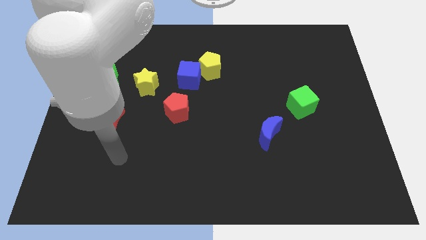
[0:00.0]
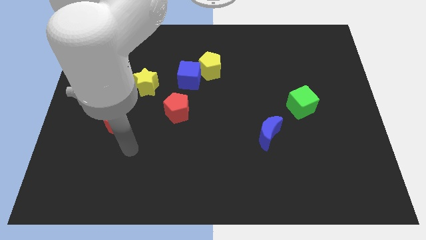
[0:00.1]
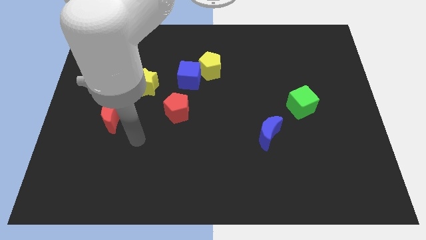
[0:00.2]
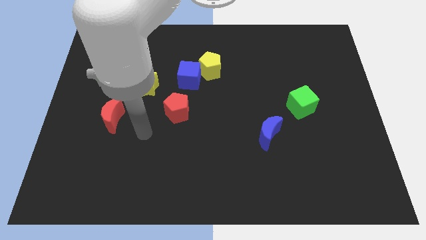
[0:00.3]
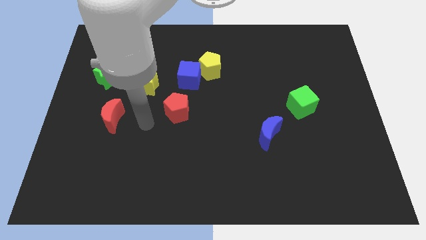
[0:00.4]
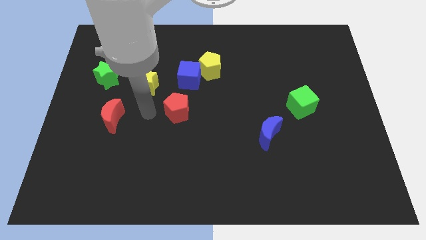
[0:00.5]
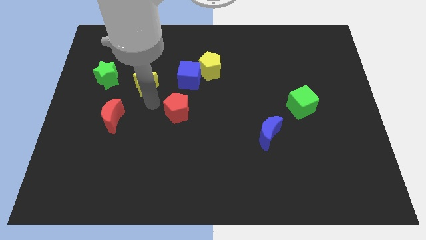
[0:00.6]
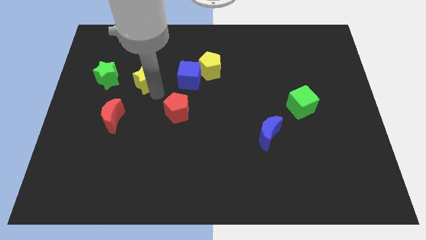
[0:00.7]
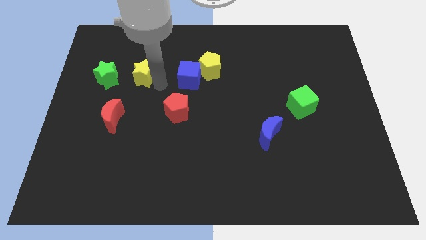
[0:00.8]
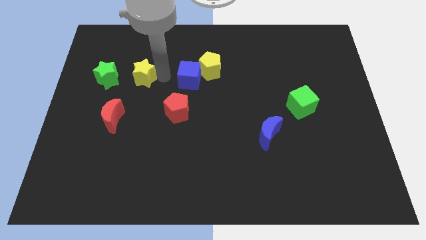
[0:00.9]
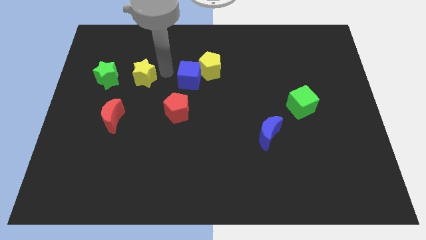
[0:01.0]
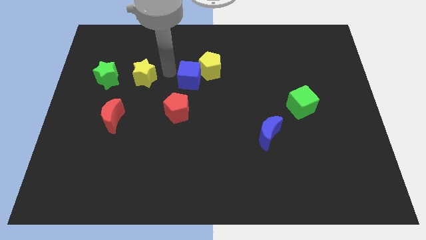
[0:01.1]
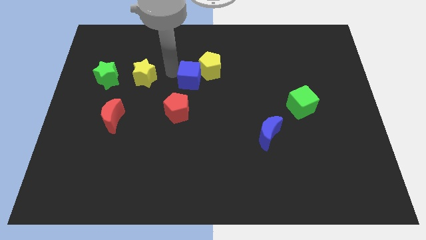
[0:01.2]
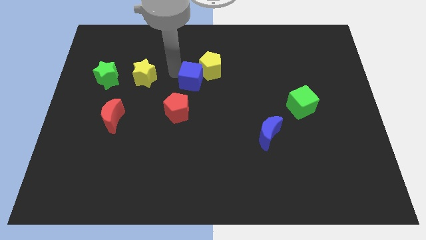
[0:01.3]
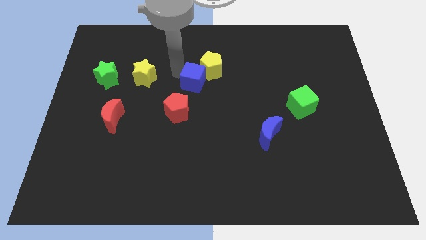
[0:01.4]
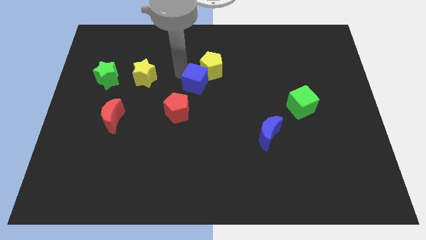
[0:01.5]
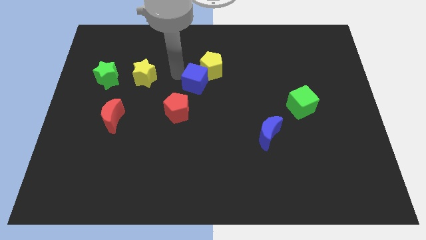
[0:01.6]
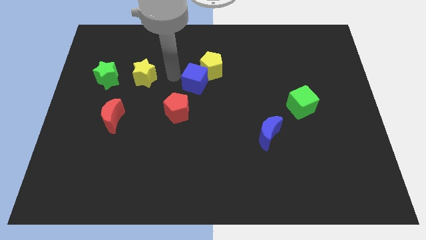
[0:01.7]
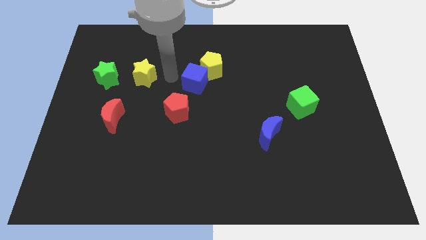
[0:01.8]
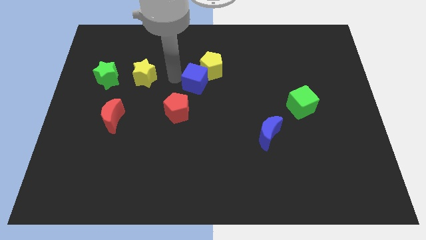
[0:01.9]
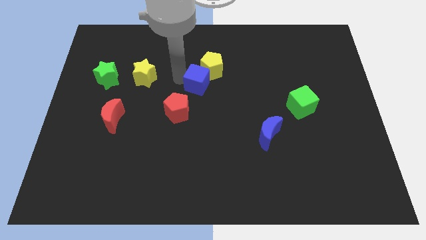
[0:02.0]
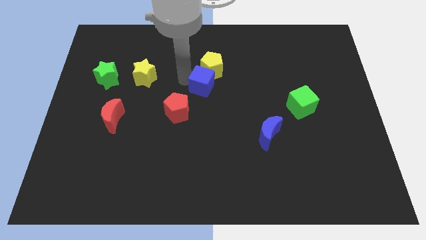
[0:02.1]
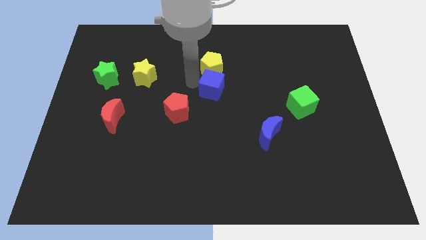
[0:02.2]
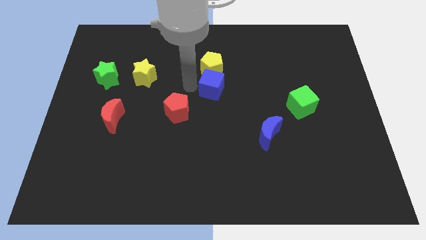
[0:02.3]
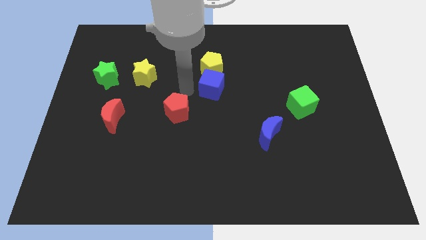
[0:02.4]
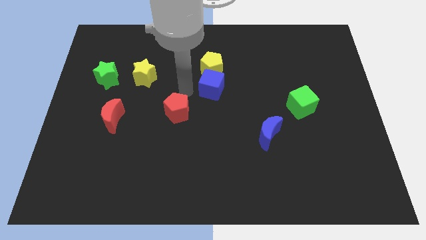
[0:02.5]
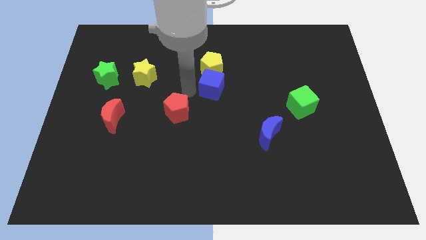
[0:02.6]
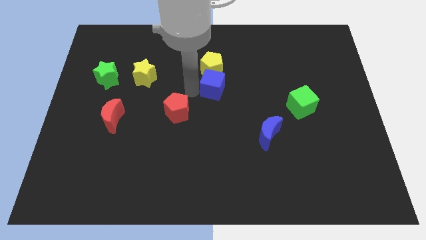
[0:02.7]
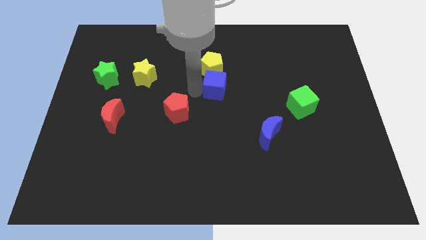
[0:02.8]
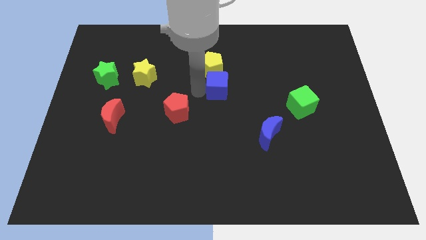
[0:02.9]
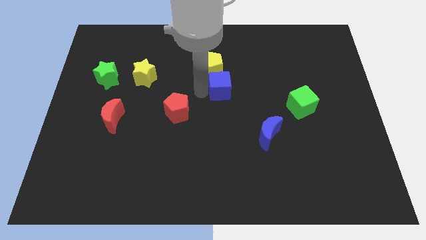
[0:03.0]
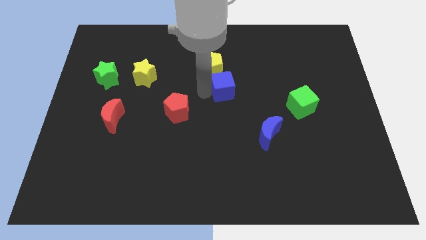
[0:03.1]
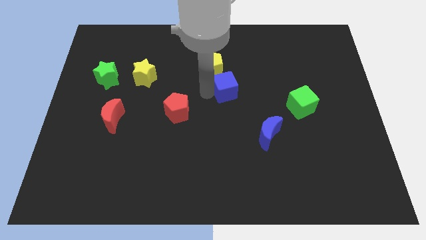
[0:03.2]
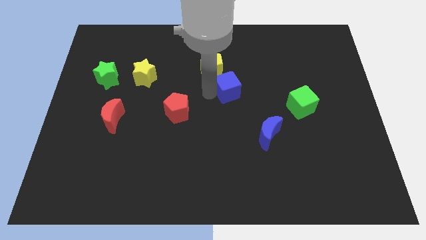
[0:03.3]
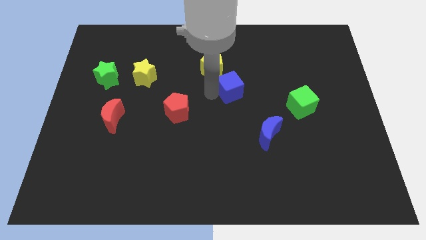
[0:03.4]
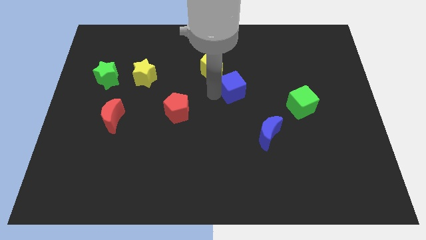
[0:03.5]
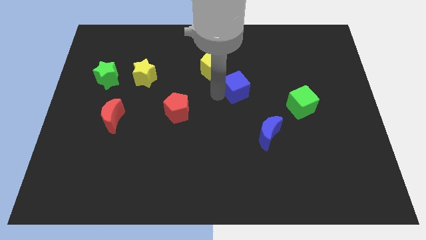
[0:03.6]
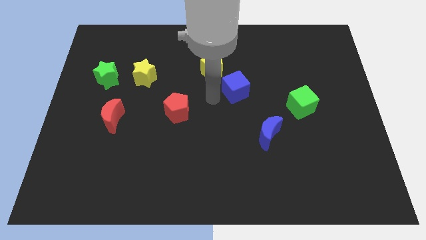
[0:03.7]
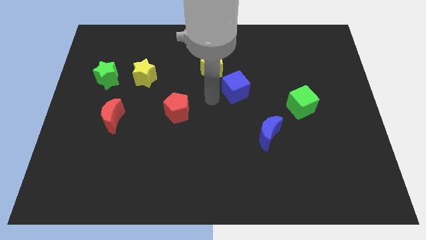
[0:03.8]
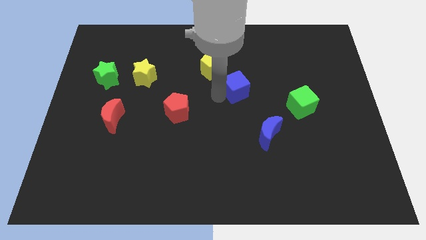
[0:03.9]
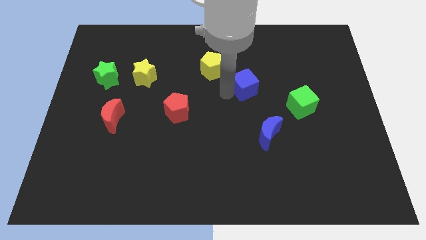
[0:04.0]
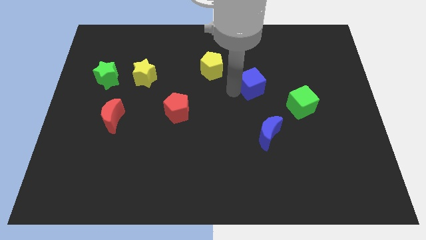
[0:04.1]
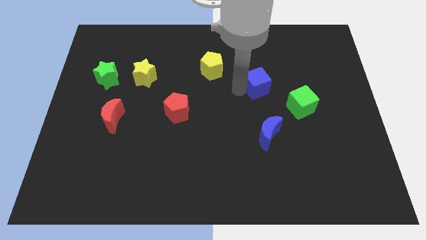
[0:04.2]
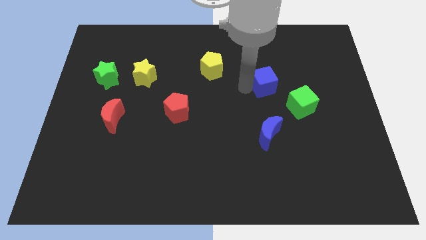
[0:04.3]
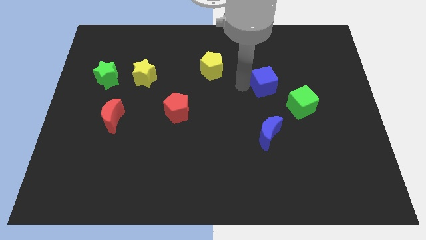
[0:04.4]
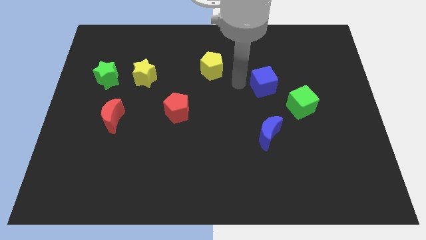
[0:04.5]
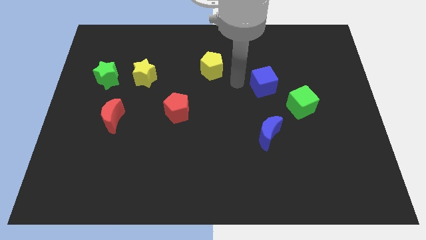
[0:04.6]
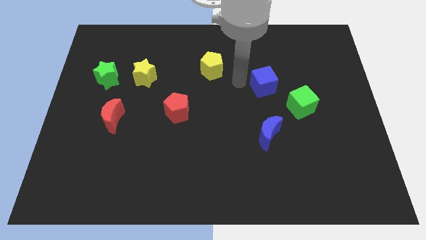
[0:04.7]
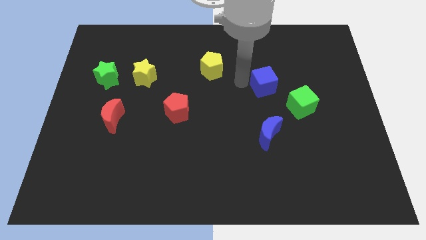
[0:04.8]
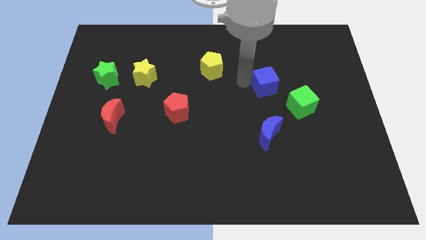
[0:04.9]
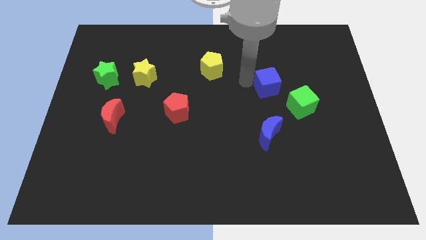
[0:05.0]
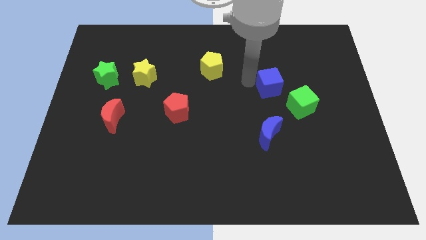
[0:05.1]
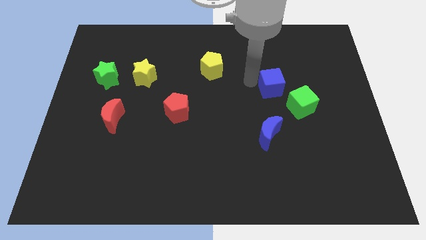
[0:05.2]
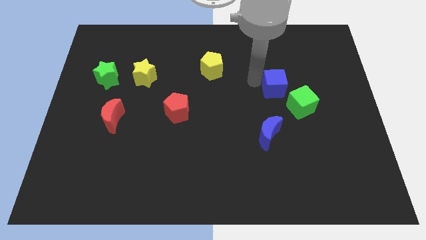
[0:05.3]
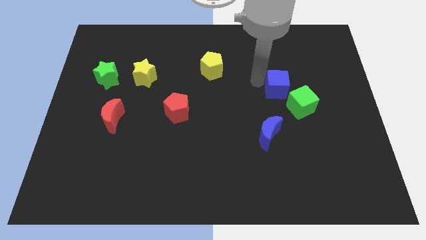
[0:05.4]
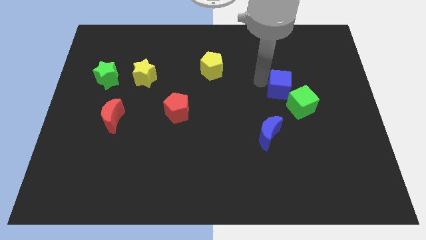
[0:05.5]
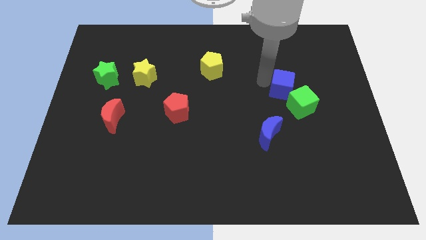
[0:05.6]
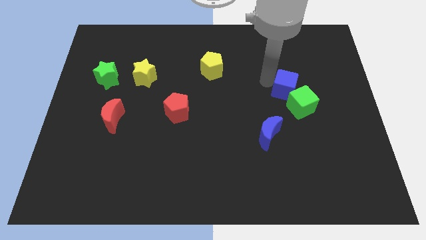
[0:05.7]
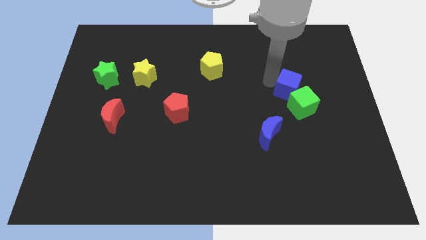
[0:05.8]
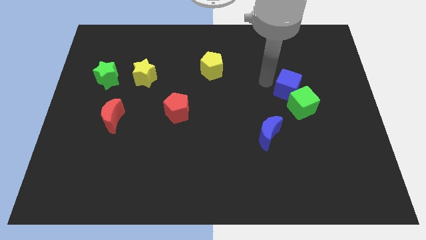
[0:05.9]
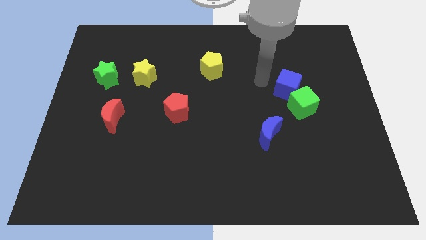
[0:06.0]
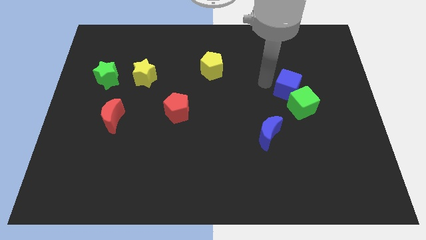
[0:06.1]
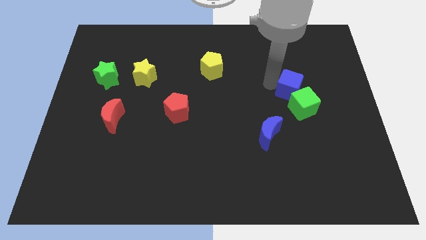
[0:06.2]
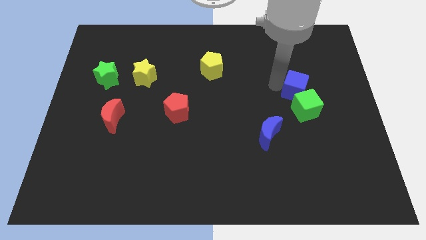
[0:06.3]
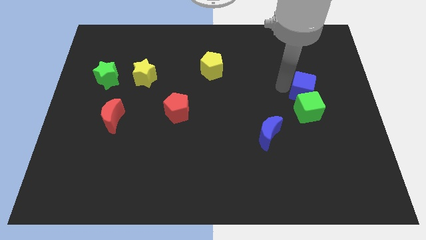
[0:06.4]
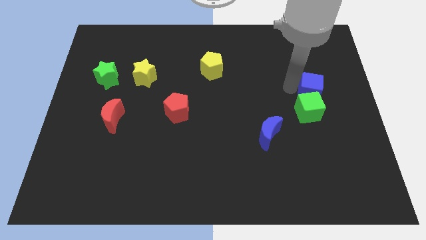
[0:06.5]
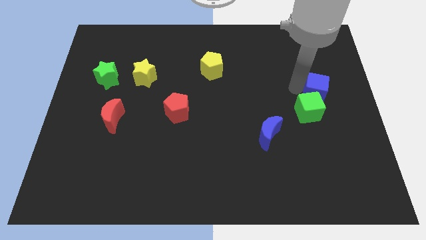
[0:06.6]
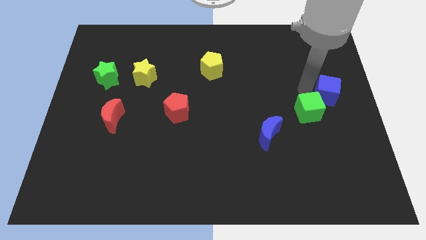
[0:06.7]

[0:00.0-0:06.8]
move the blue cube to the right side of the board

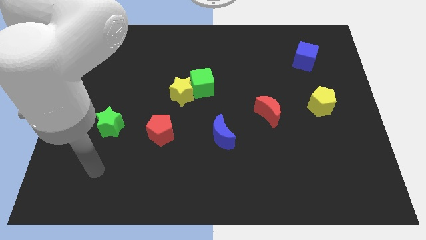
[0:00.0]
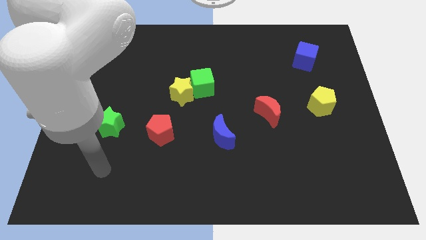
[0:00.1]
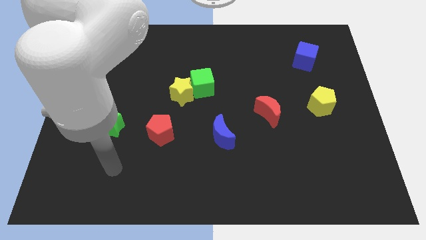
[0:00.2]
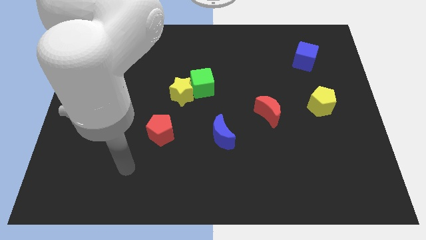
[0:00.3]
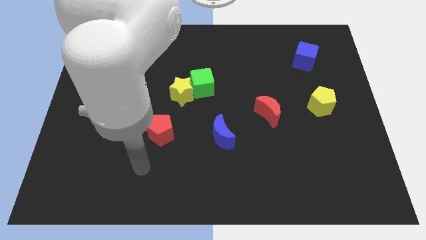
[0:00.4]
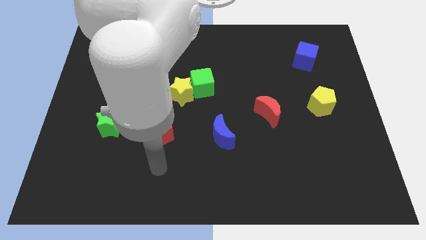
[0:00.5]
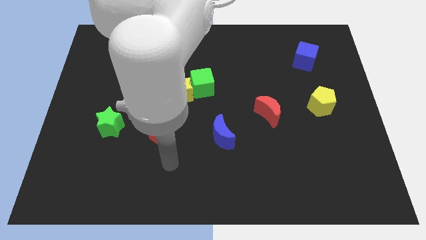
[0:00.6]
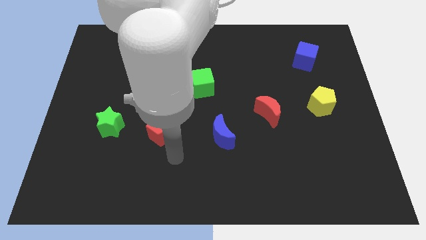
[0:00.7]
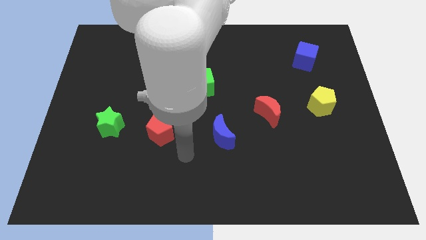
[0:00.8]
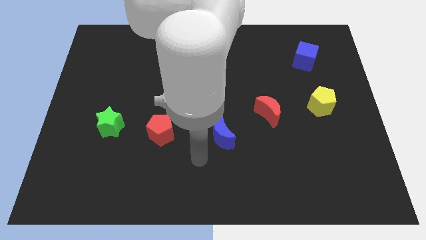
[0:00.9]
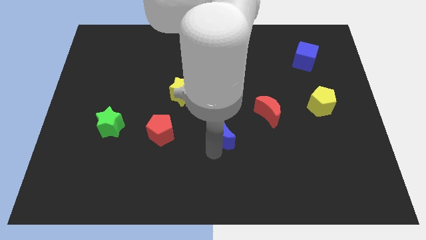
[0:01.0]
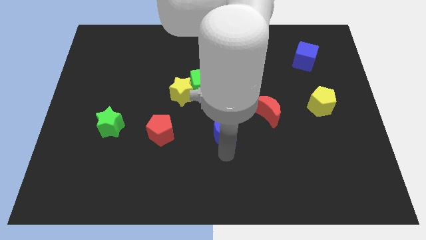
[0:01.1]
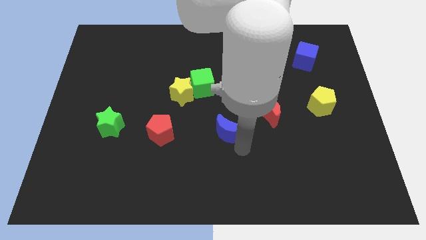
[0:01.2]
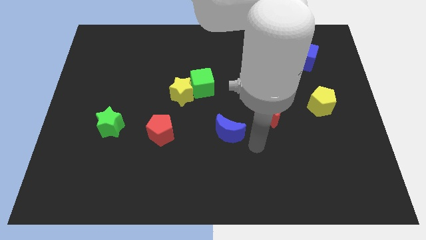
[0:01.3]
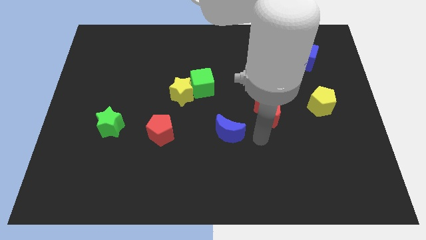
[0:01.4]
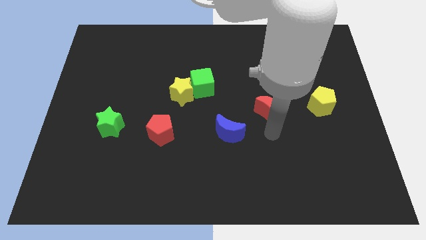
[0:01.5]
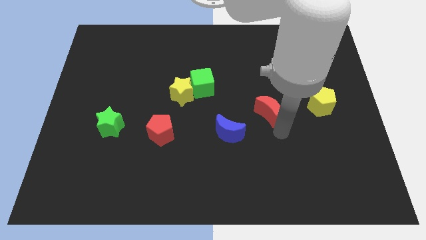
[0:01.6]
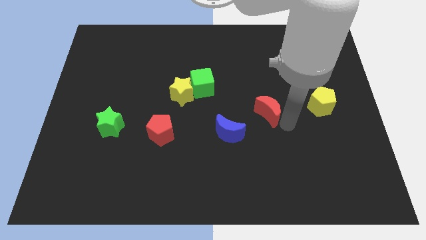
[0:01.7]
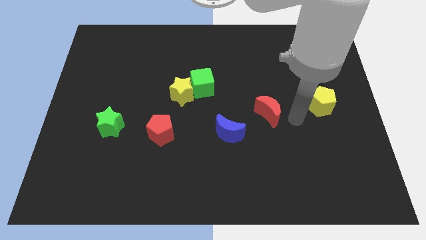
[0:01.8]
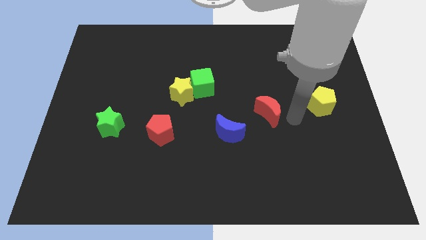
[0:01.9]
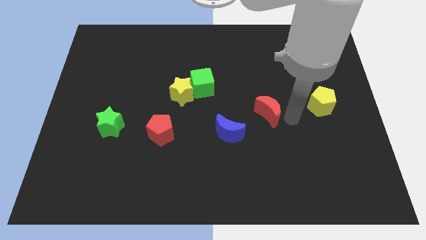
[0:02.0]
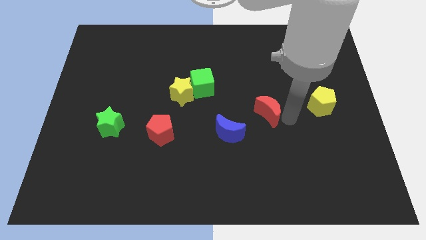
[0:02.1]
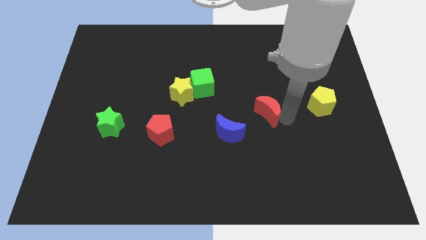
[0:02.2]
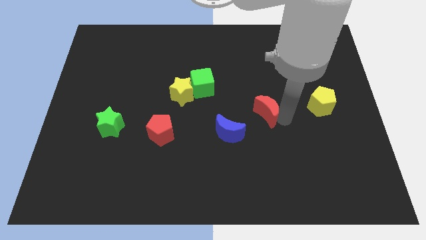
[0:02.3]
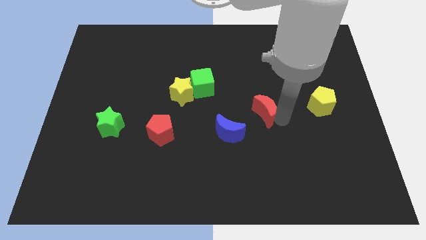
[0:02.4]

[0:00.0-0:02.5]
slide the red moon to the middle of the board
